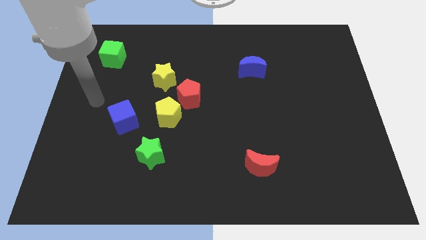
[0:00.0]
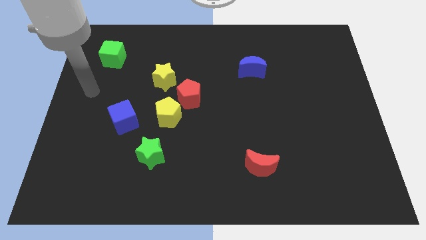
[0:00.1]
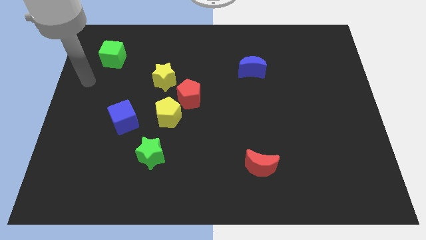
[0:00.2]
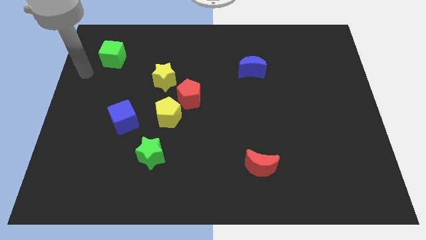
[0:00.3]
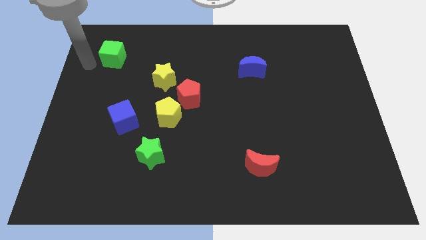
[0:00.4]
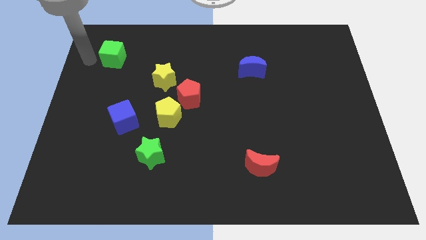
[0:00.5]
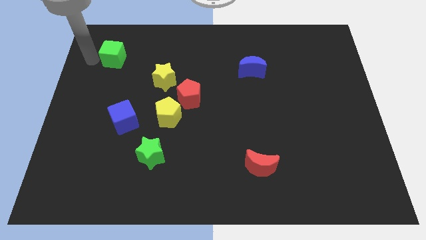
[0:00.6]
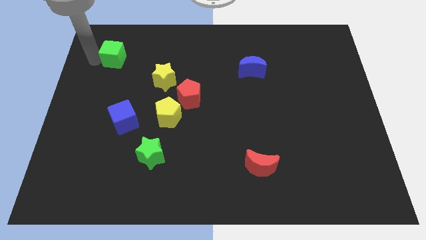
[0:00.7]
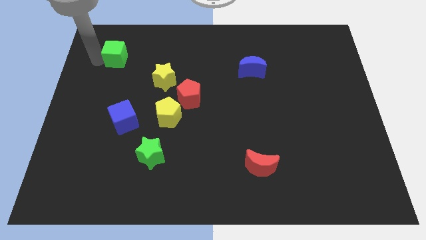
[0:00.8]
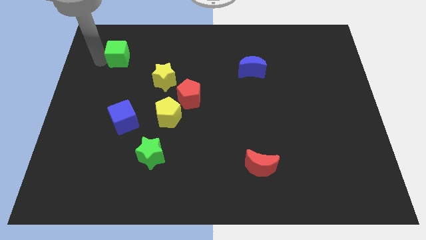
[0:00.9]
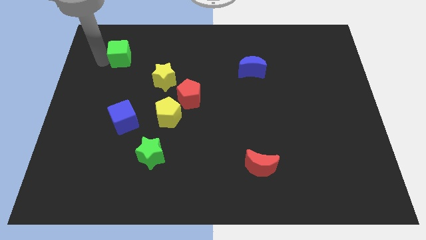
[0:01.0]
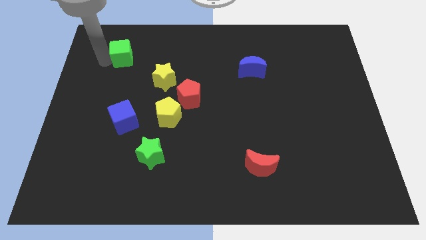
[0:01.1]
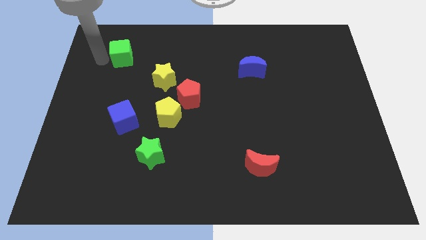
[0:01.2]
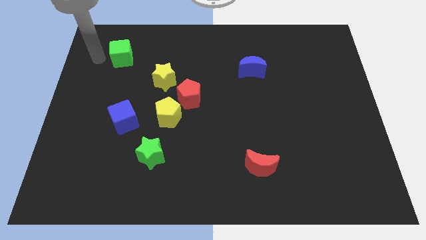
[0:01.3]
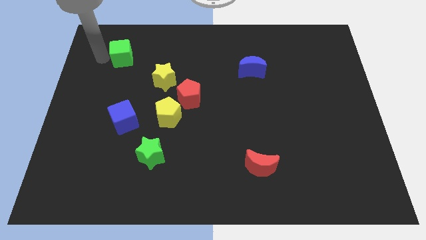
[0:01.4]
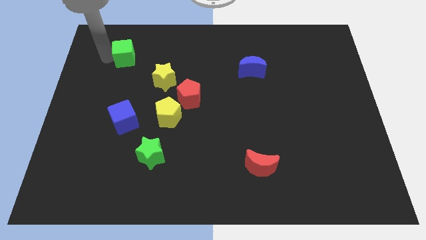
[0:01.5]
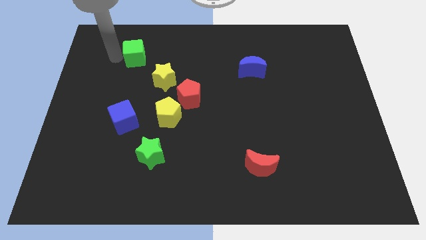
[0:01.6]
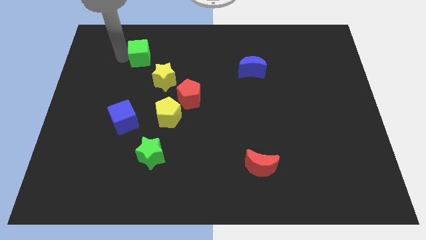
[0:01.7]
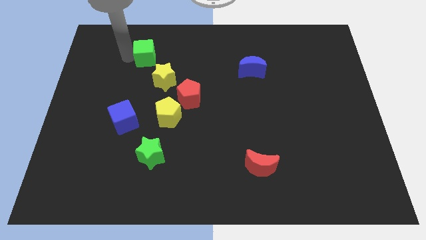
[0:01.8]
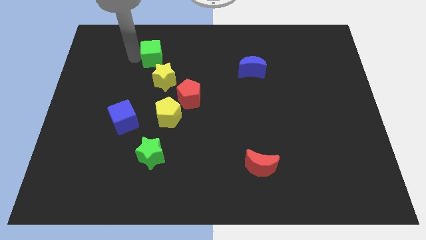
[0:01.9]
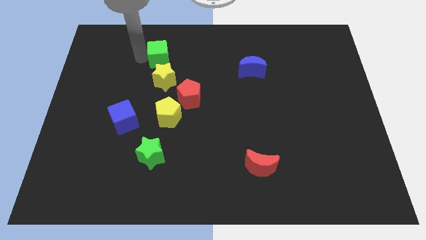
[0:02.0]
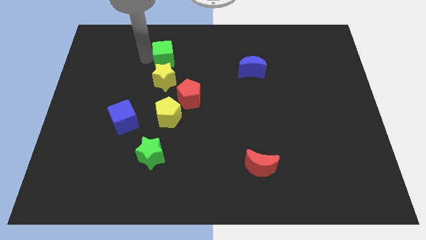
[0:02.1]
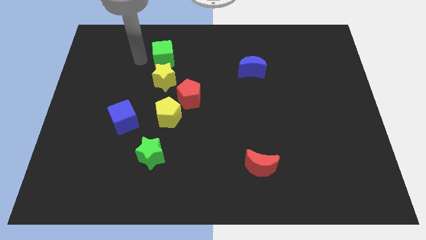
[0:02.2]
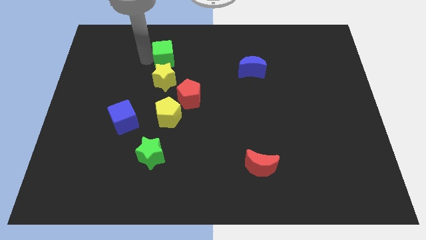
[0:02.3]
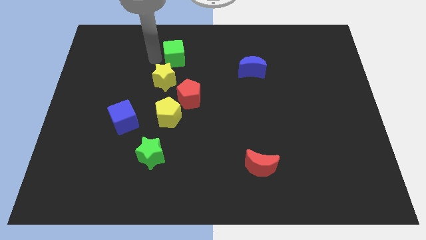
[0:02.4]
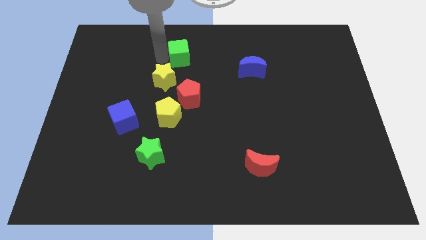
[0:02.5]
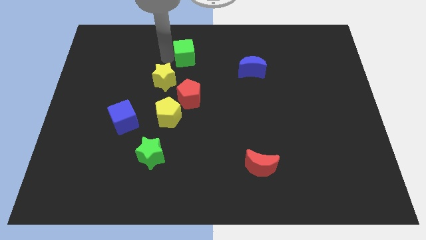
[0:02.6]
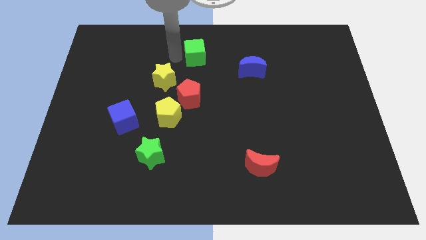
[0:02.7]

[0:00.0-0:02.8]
push the green cube to the right

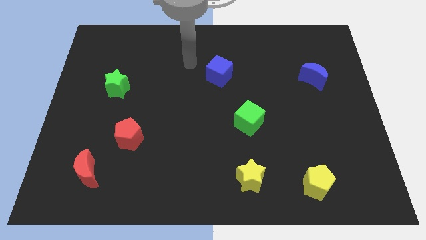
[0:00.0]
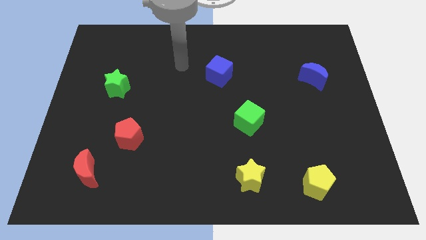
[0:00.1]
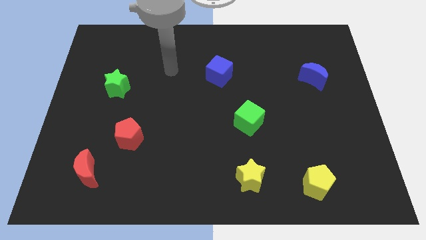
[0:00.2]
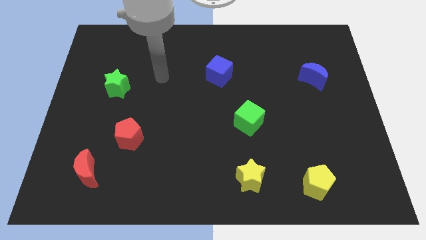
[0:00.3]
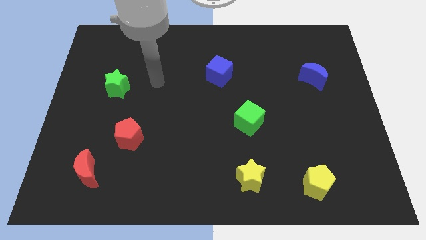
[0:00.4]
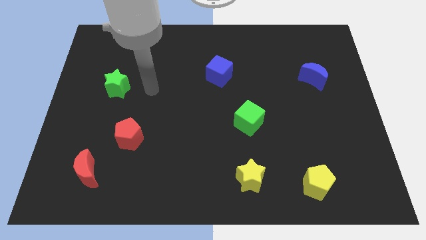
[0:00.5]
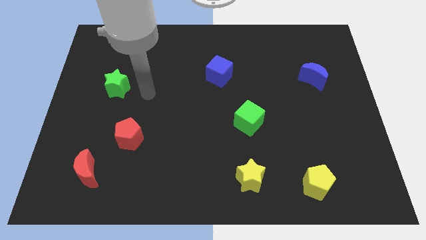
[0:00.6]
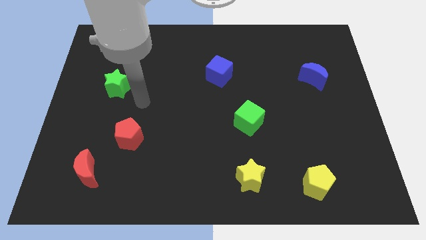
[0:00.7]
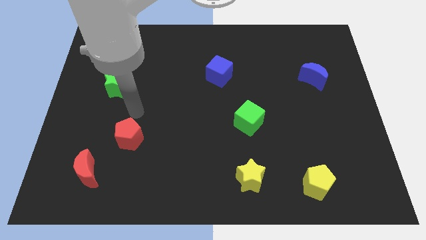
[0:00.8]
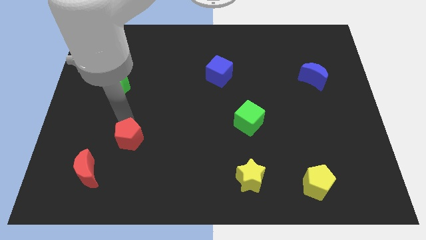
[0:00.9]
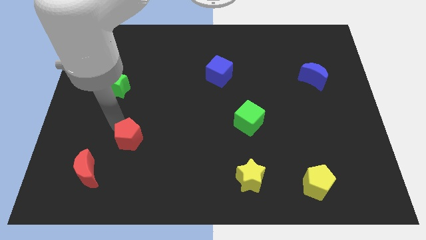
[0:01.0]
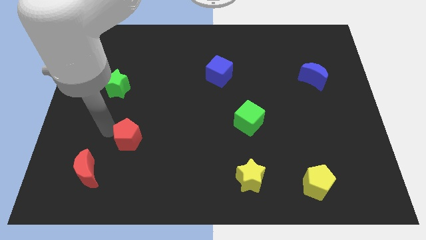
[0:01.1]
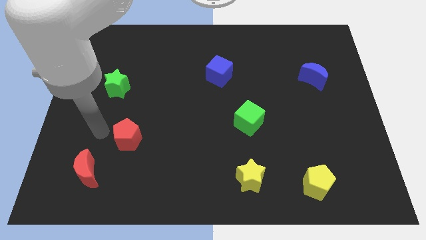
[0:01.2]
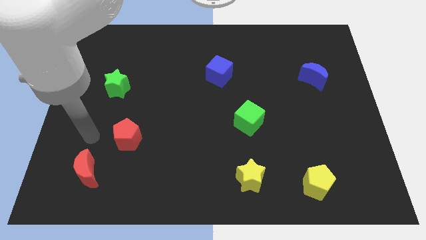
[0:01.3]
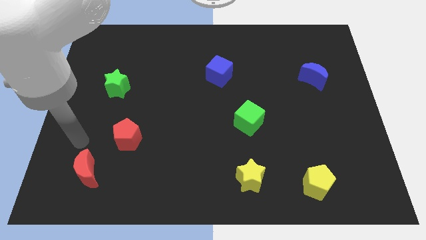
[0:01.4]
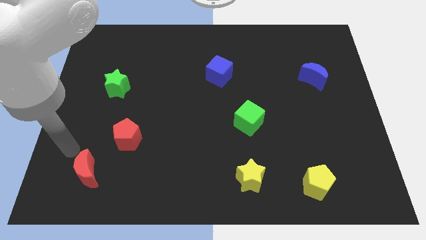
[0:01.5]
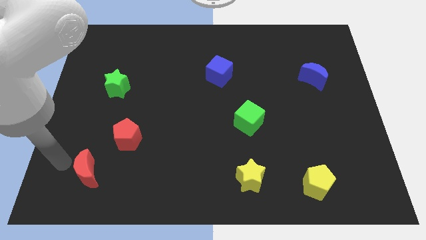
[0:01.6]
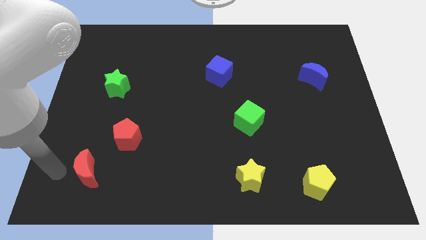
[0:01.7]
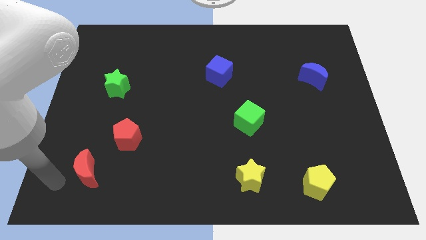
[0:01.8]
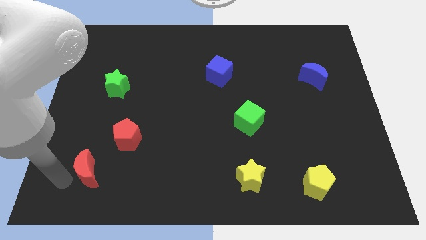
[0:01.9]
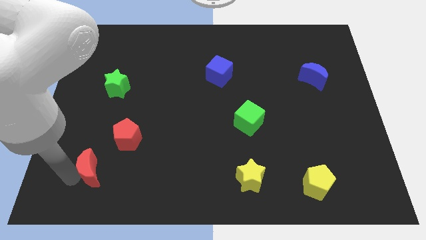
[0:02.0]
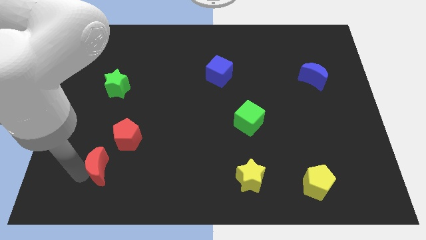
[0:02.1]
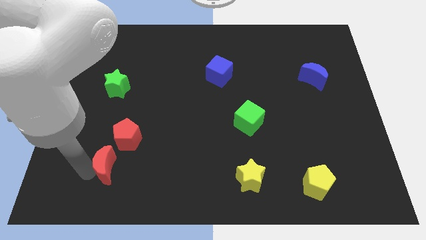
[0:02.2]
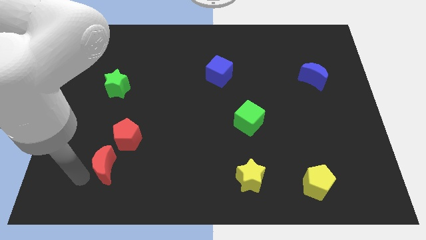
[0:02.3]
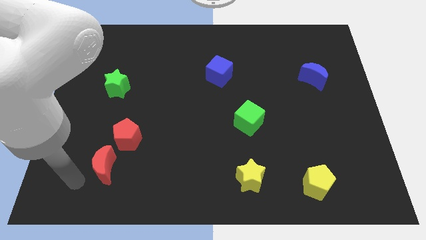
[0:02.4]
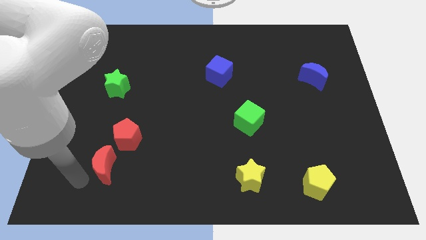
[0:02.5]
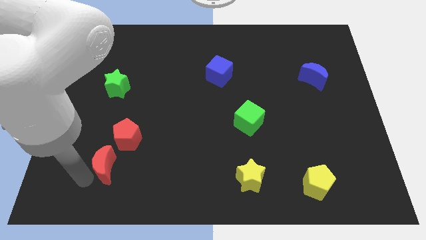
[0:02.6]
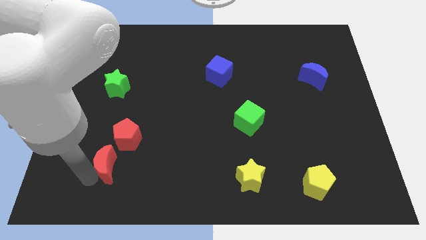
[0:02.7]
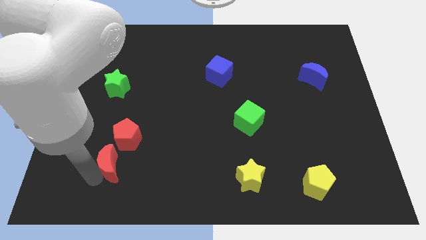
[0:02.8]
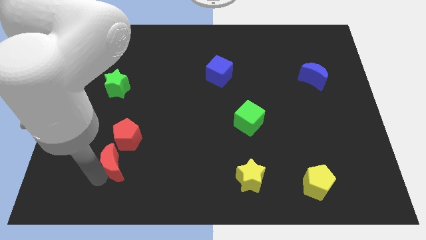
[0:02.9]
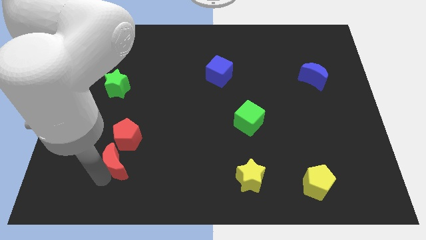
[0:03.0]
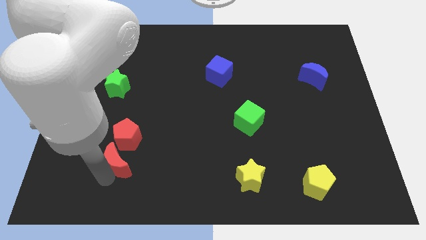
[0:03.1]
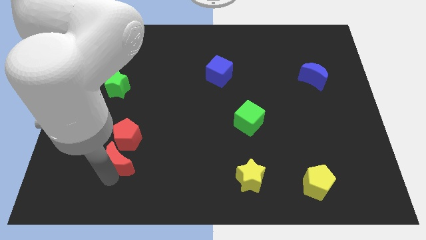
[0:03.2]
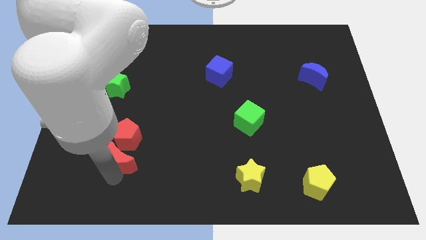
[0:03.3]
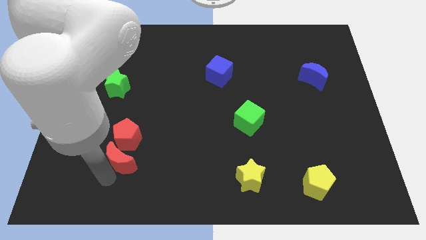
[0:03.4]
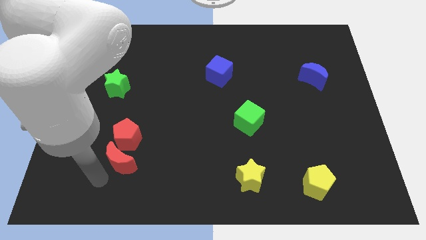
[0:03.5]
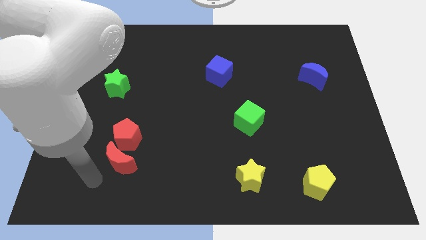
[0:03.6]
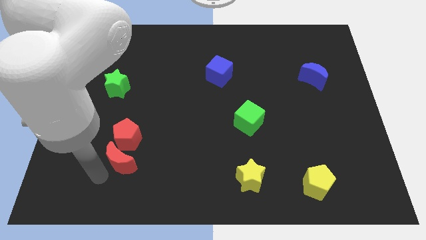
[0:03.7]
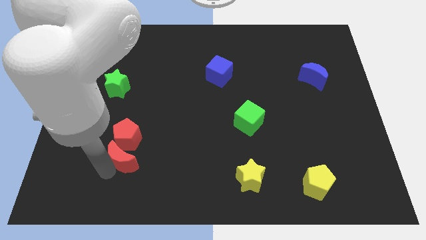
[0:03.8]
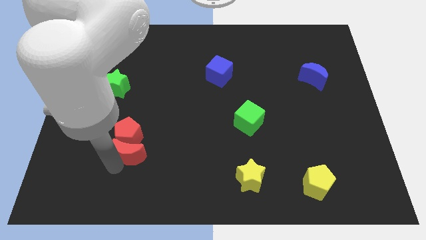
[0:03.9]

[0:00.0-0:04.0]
slightly push the red moon up and right diagonally

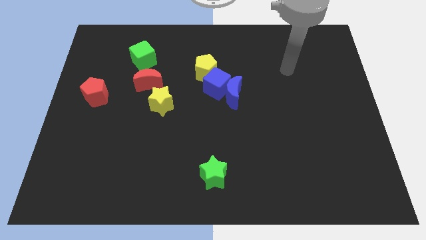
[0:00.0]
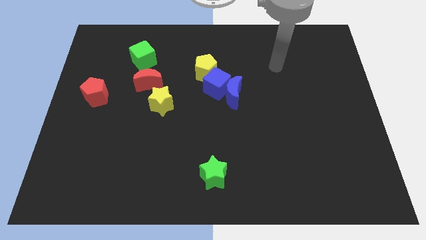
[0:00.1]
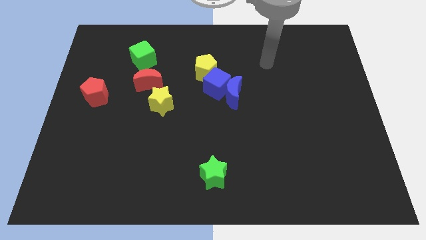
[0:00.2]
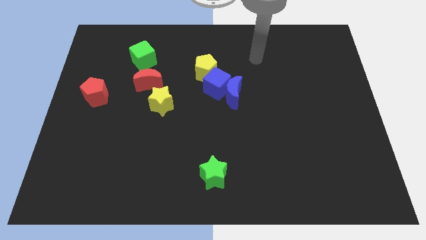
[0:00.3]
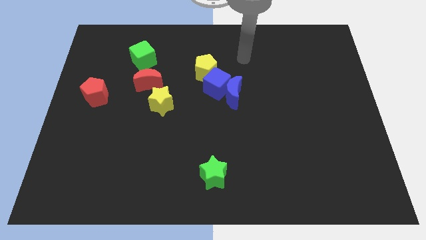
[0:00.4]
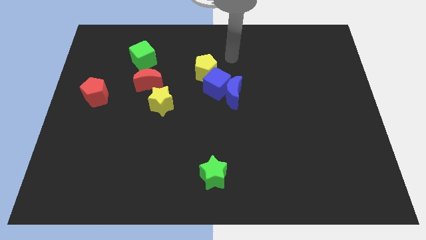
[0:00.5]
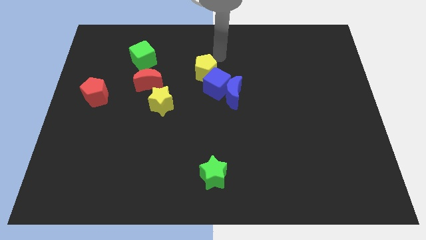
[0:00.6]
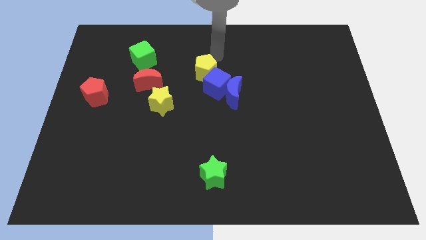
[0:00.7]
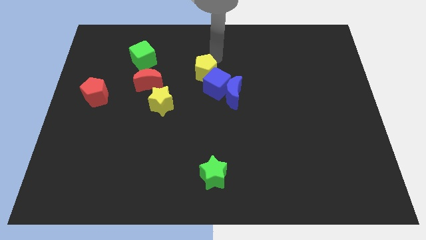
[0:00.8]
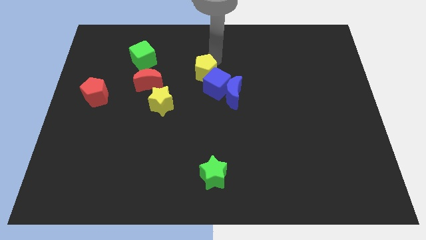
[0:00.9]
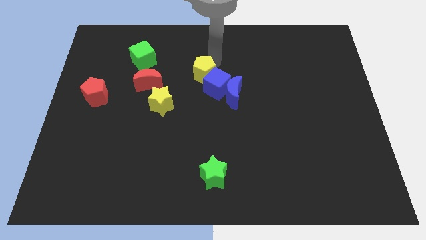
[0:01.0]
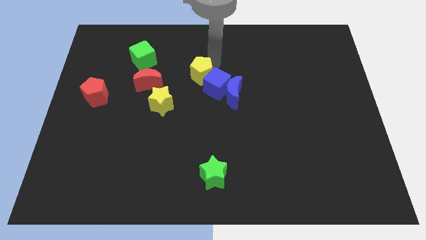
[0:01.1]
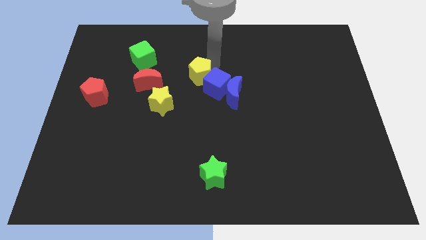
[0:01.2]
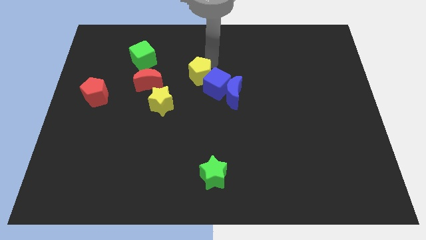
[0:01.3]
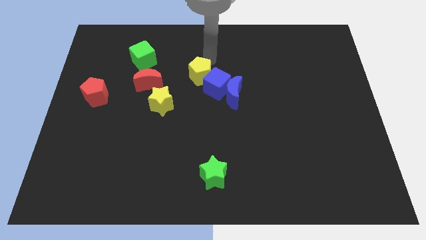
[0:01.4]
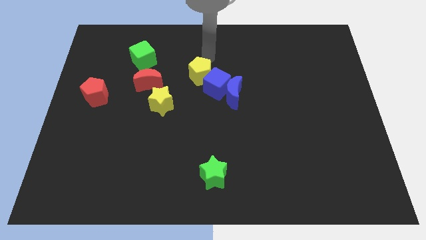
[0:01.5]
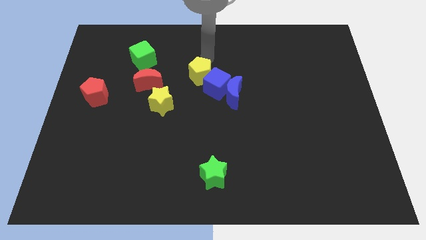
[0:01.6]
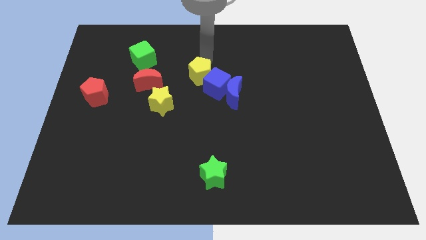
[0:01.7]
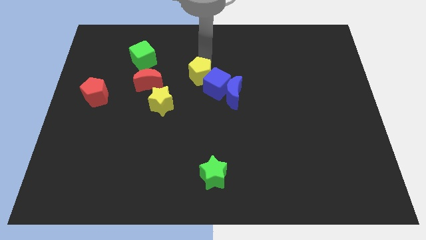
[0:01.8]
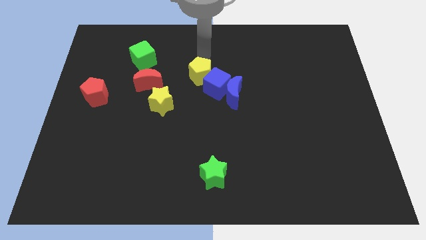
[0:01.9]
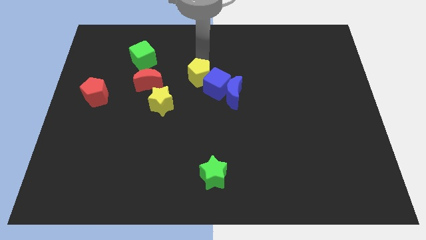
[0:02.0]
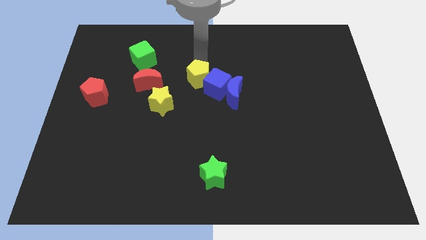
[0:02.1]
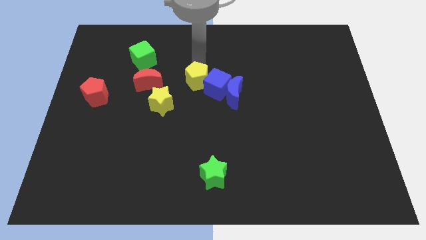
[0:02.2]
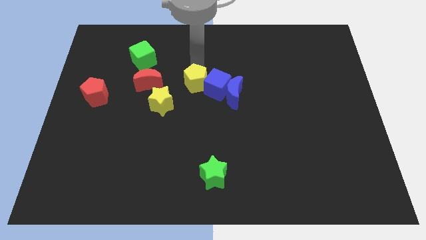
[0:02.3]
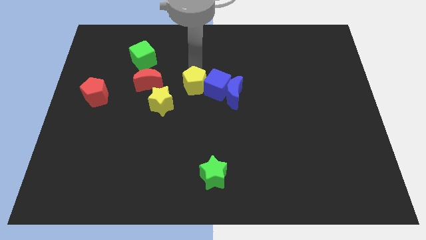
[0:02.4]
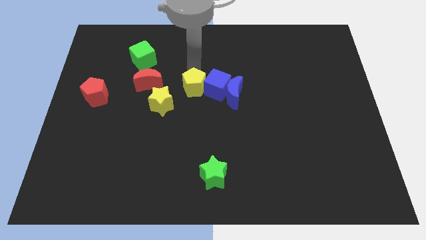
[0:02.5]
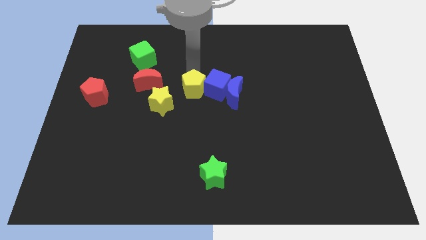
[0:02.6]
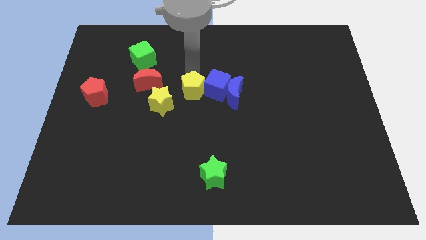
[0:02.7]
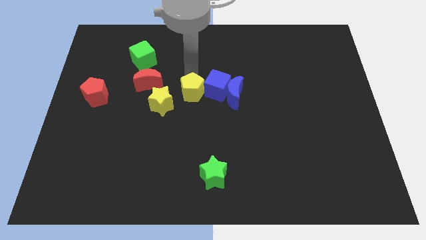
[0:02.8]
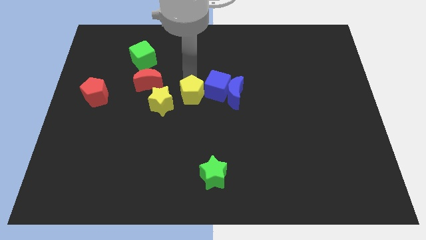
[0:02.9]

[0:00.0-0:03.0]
slide the yellow pentagon somewhat diagonally downwards and left
